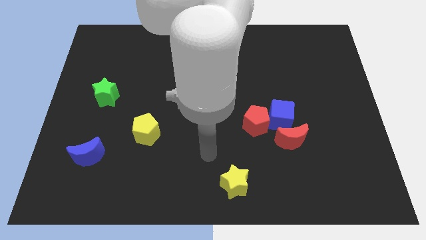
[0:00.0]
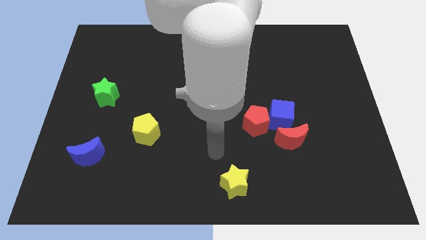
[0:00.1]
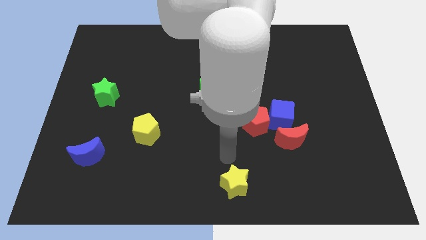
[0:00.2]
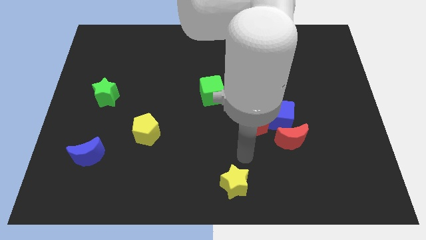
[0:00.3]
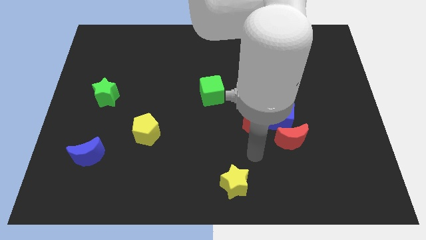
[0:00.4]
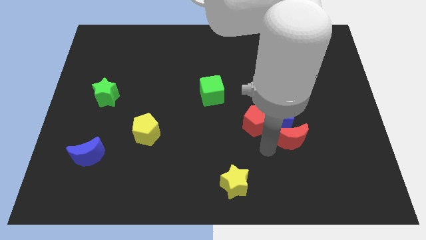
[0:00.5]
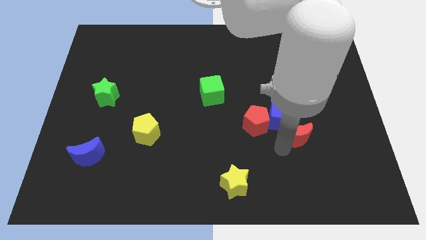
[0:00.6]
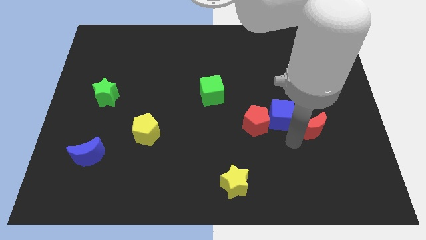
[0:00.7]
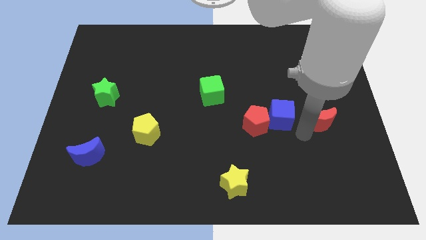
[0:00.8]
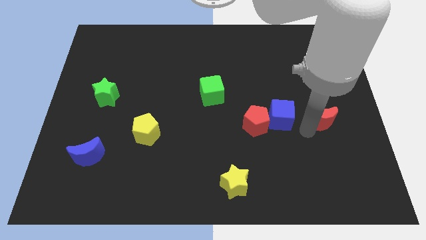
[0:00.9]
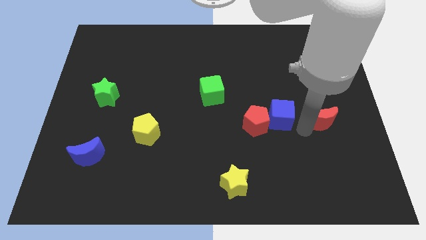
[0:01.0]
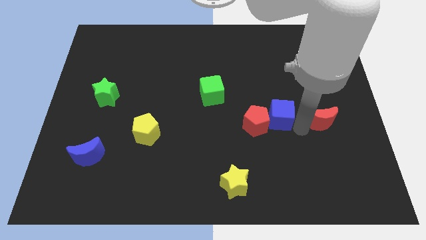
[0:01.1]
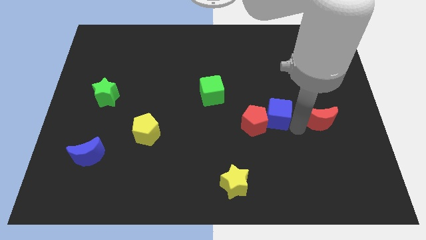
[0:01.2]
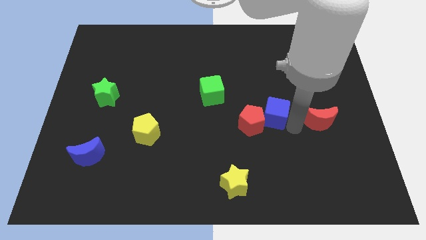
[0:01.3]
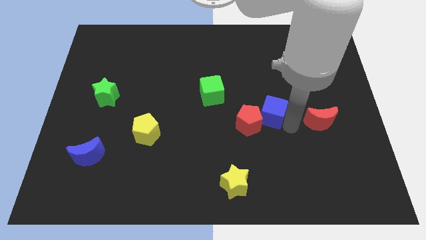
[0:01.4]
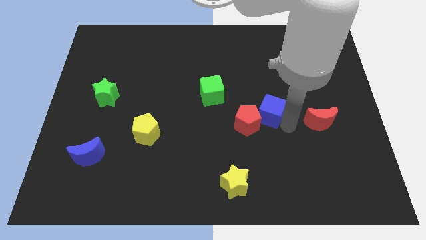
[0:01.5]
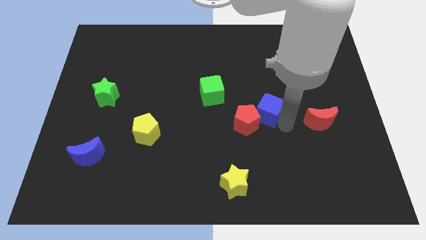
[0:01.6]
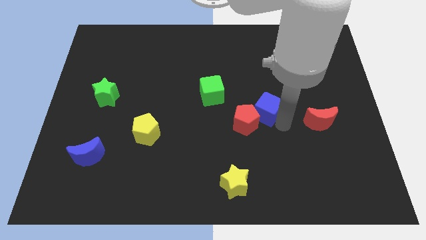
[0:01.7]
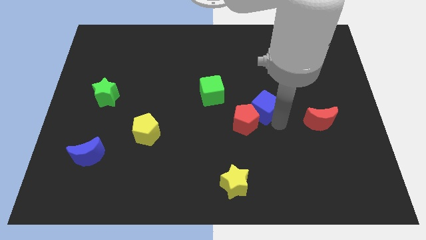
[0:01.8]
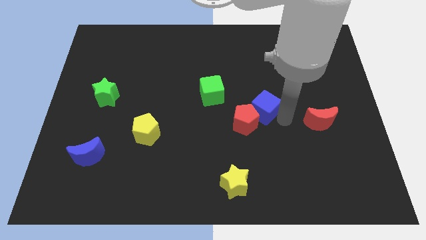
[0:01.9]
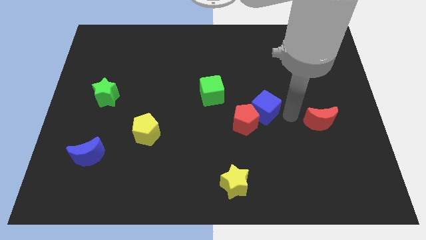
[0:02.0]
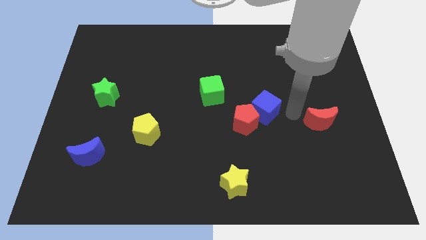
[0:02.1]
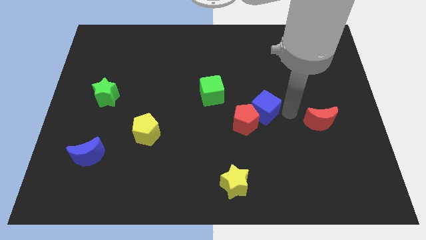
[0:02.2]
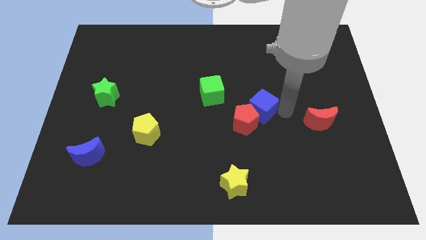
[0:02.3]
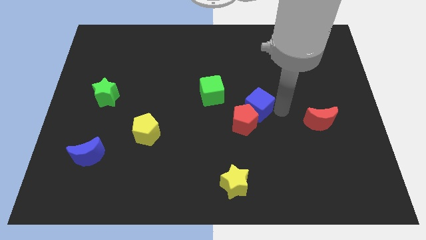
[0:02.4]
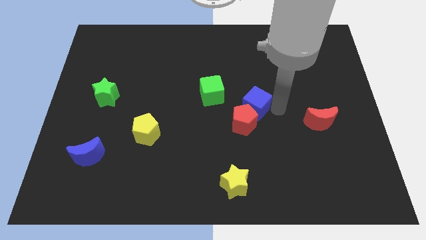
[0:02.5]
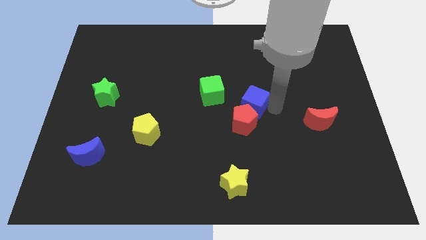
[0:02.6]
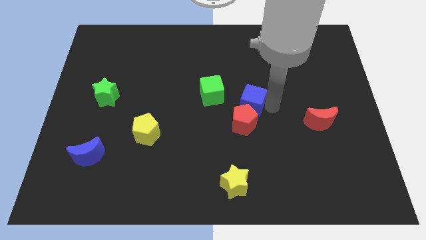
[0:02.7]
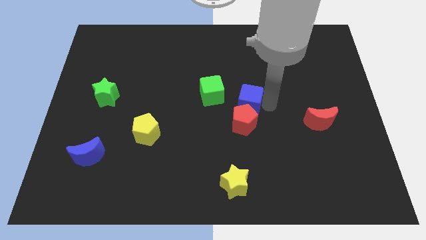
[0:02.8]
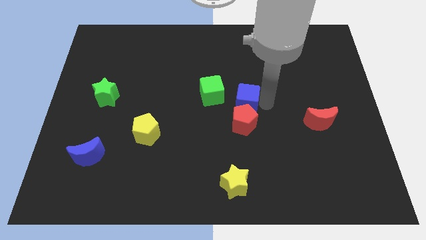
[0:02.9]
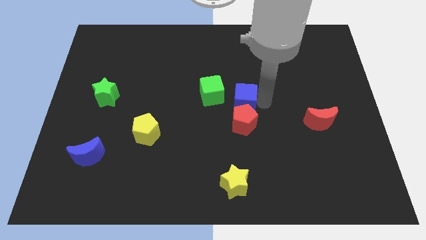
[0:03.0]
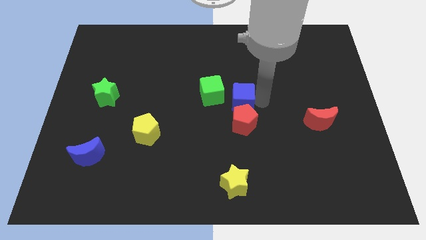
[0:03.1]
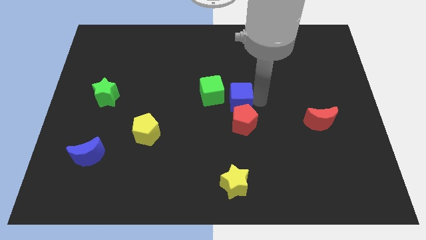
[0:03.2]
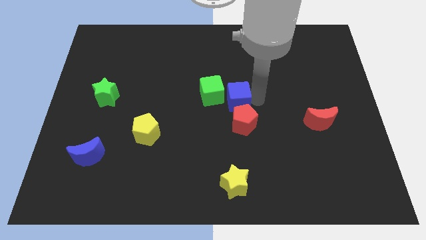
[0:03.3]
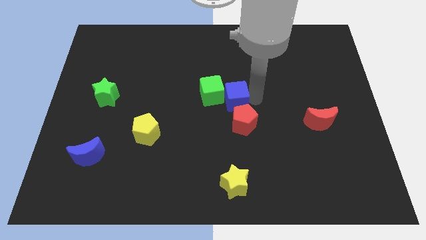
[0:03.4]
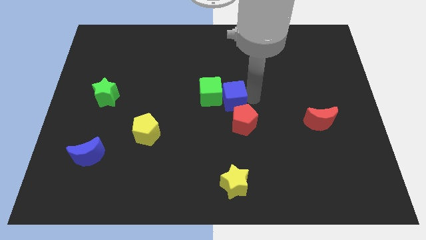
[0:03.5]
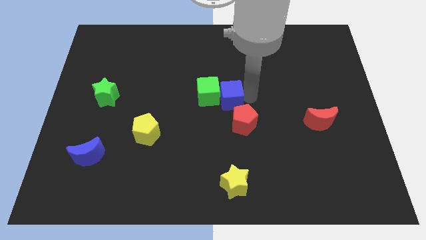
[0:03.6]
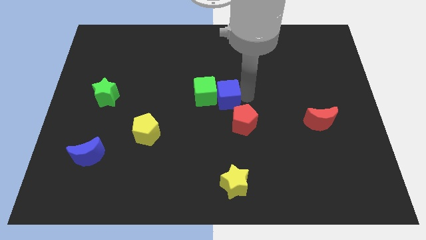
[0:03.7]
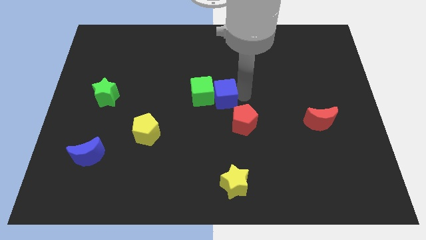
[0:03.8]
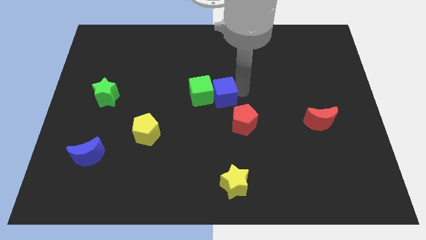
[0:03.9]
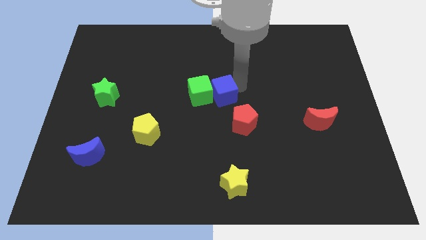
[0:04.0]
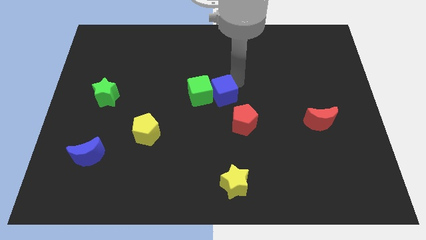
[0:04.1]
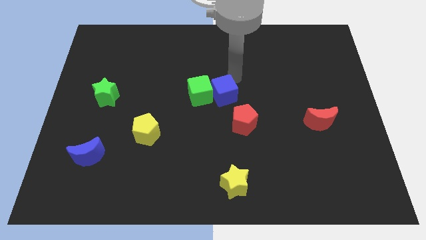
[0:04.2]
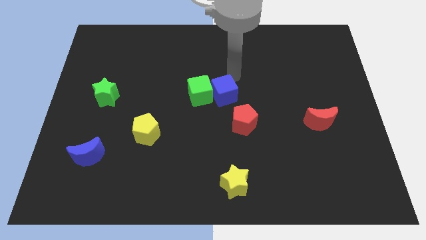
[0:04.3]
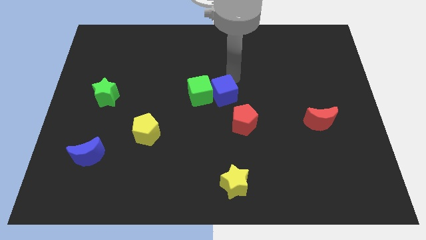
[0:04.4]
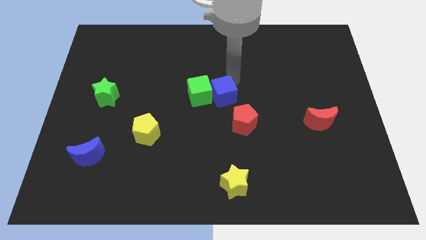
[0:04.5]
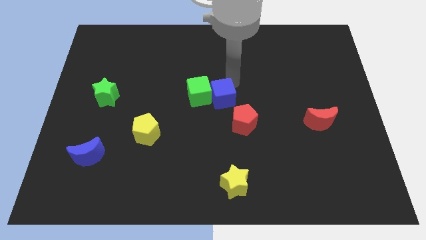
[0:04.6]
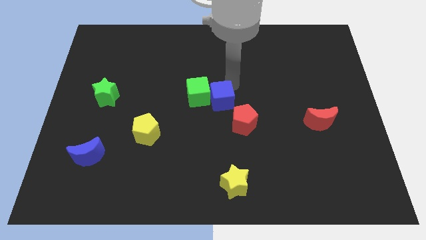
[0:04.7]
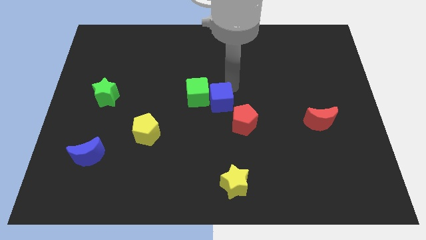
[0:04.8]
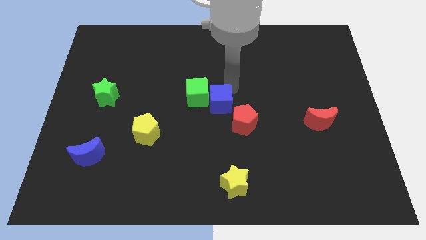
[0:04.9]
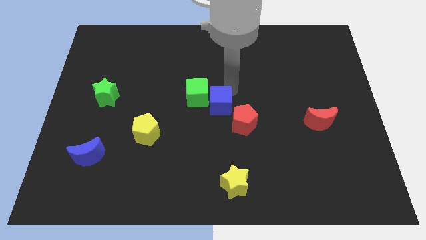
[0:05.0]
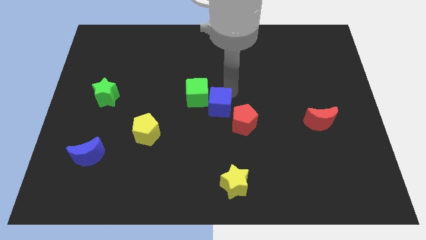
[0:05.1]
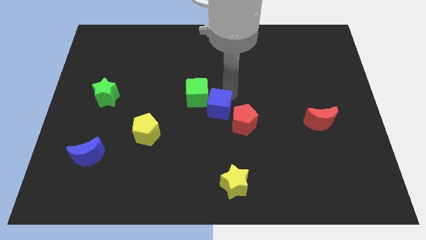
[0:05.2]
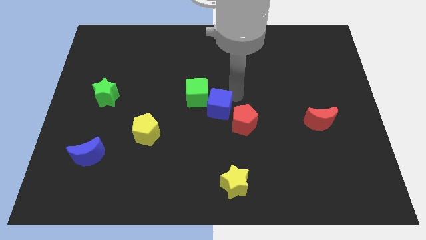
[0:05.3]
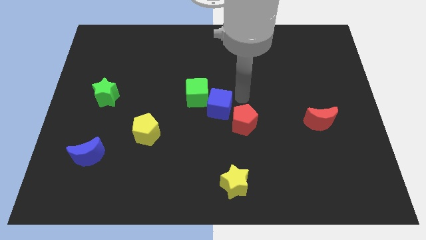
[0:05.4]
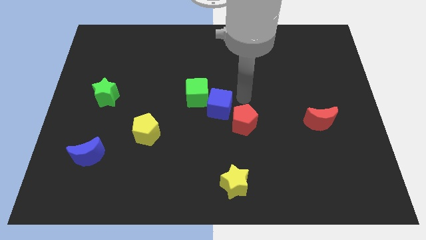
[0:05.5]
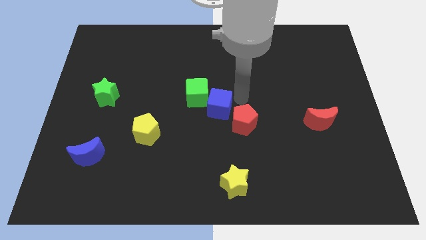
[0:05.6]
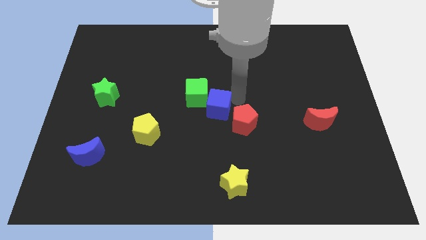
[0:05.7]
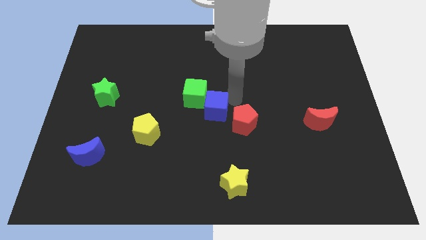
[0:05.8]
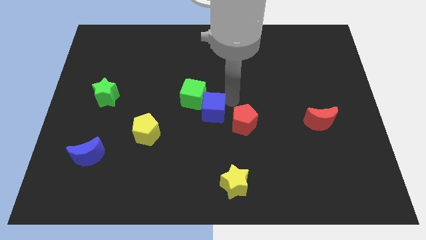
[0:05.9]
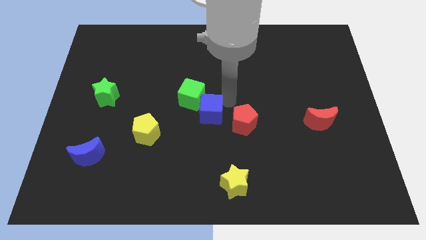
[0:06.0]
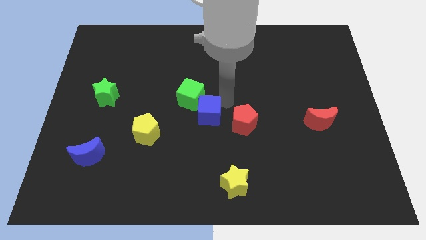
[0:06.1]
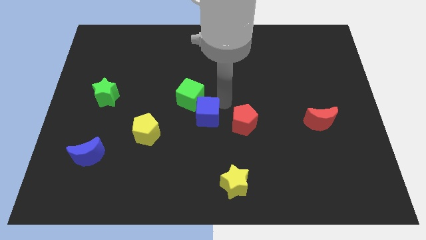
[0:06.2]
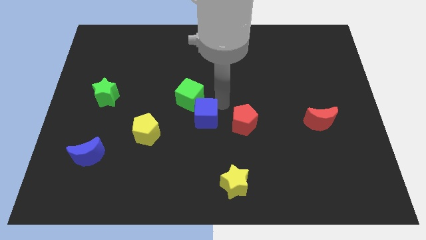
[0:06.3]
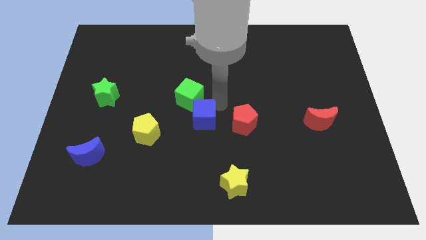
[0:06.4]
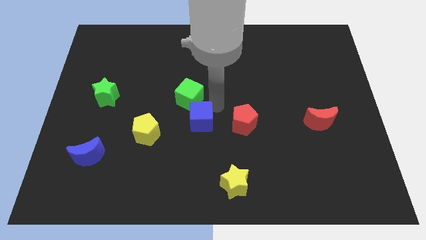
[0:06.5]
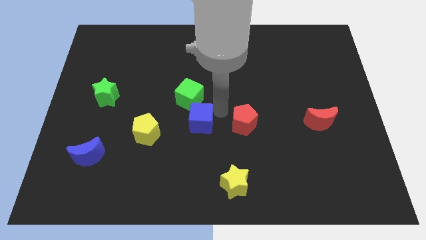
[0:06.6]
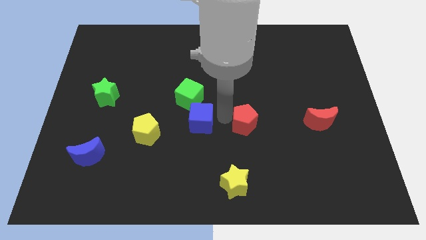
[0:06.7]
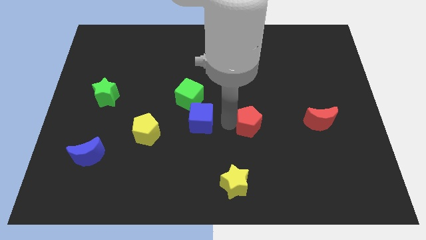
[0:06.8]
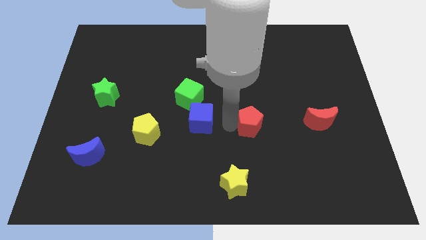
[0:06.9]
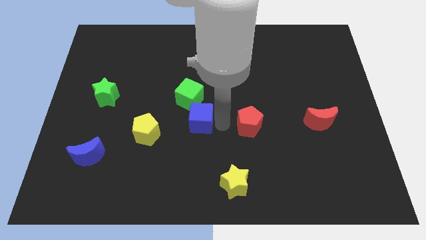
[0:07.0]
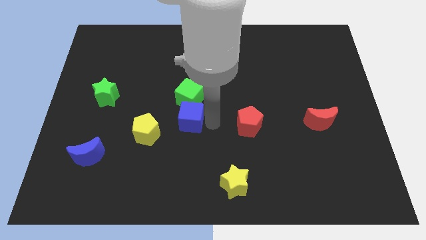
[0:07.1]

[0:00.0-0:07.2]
slide the blue cube left

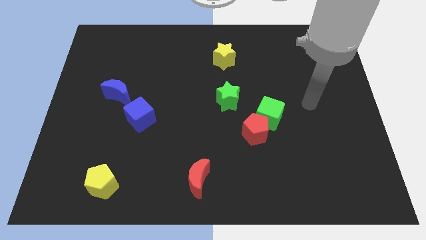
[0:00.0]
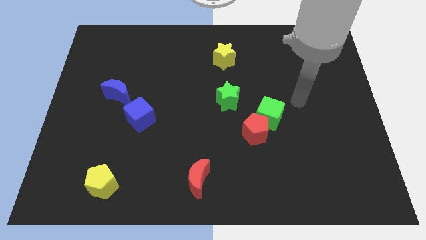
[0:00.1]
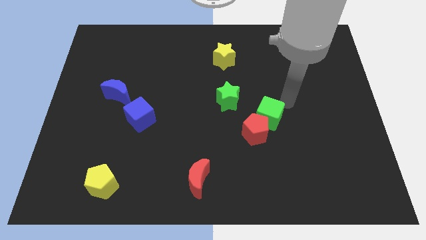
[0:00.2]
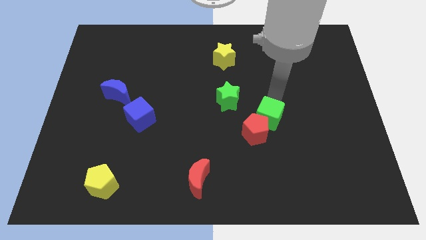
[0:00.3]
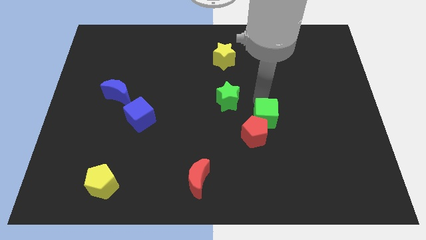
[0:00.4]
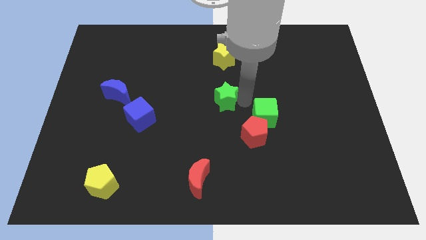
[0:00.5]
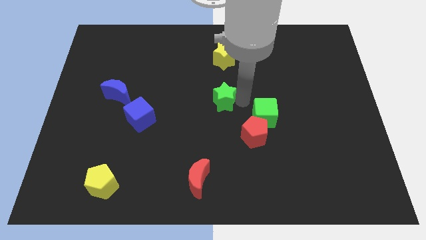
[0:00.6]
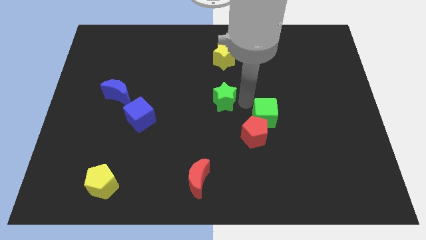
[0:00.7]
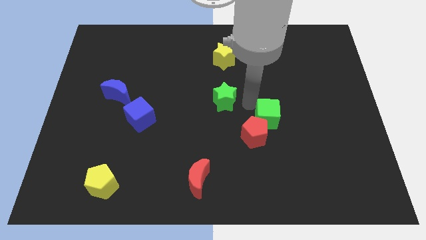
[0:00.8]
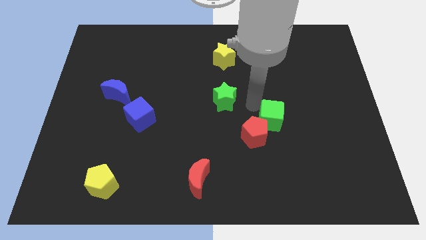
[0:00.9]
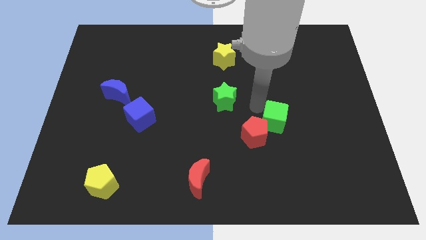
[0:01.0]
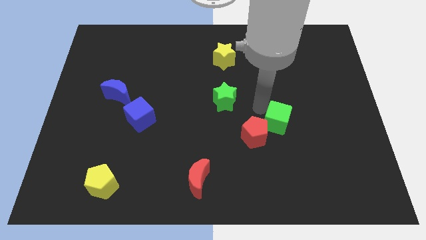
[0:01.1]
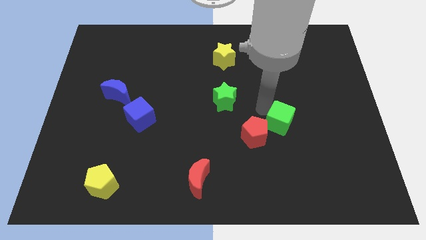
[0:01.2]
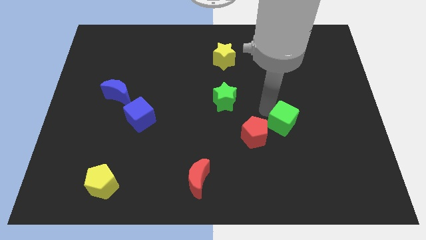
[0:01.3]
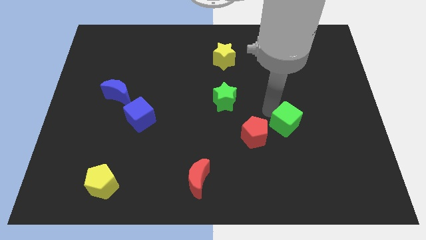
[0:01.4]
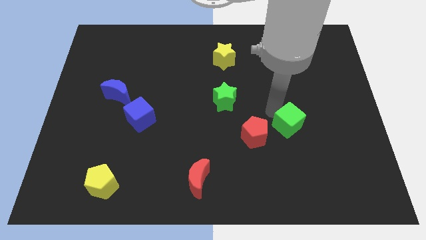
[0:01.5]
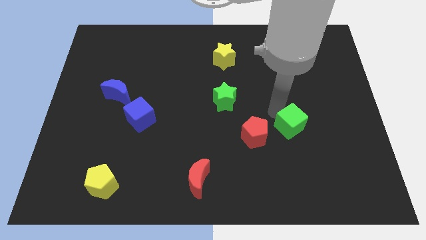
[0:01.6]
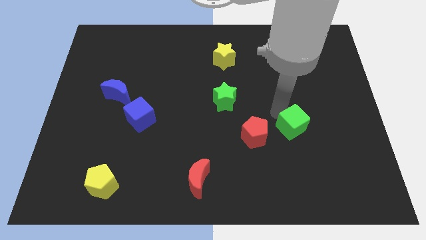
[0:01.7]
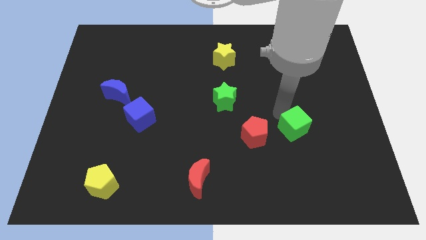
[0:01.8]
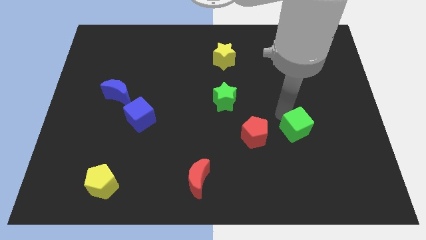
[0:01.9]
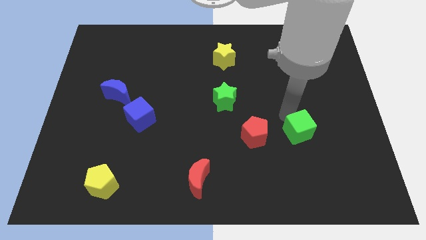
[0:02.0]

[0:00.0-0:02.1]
move the green cube a little bit diagonally down and to the right
